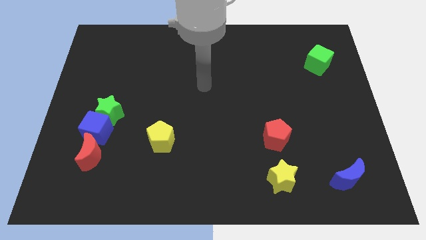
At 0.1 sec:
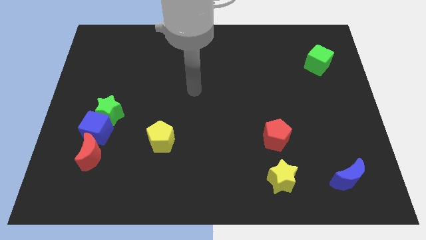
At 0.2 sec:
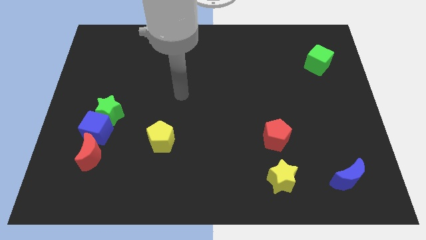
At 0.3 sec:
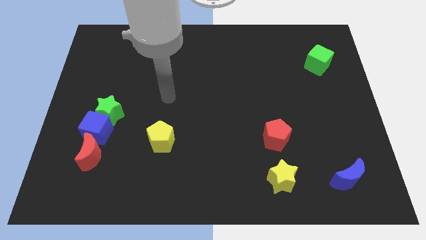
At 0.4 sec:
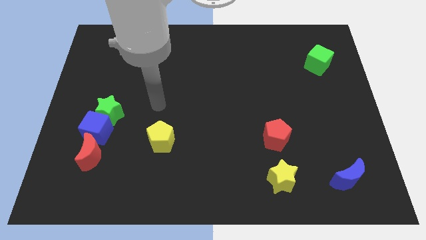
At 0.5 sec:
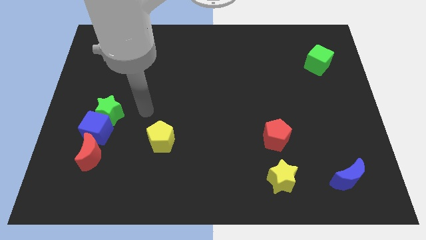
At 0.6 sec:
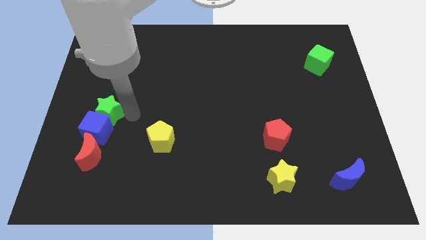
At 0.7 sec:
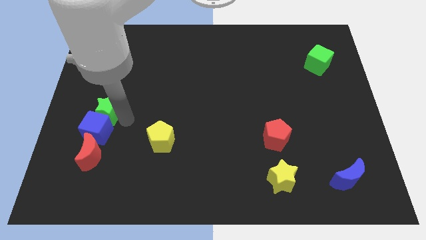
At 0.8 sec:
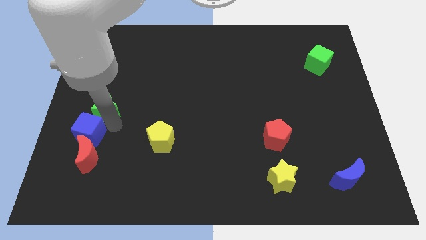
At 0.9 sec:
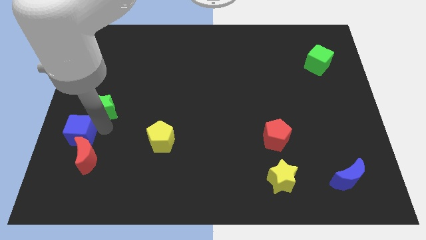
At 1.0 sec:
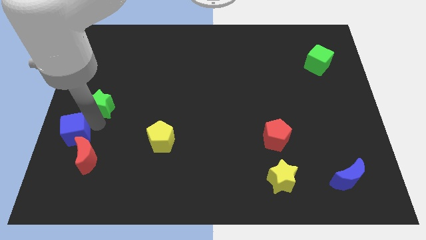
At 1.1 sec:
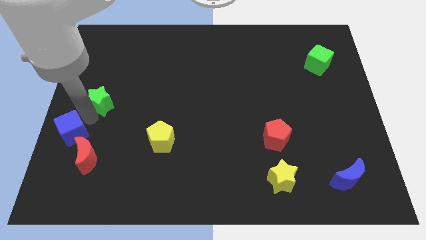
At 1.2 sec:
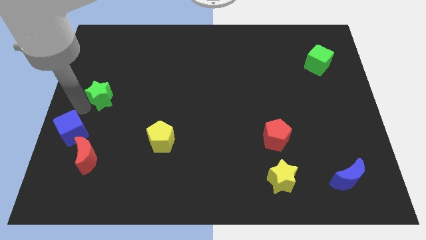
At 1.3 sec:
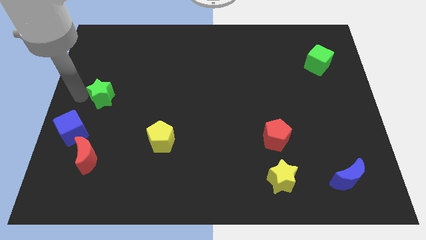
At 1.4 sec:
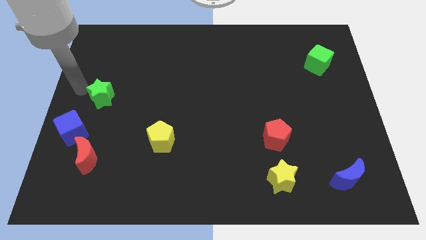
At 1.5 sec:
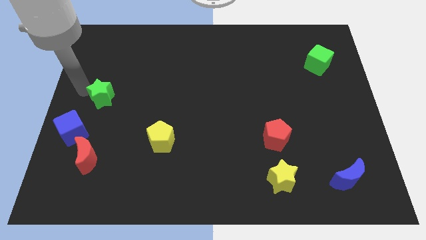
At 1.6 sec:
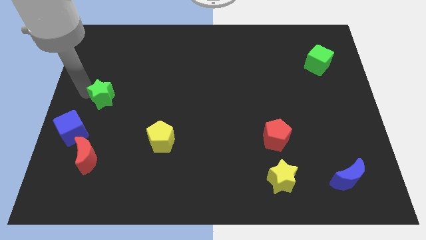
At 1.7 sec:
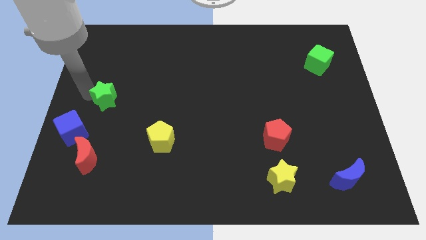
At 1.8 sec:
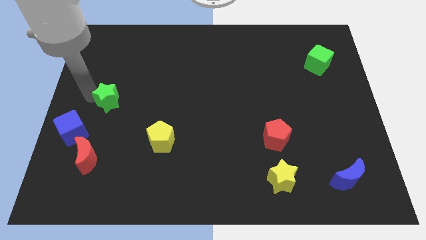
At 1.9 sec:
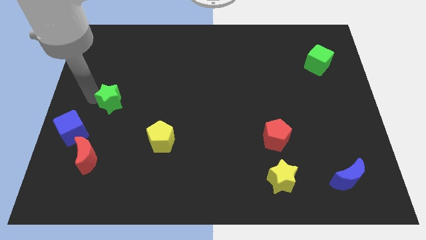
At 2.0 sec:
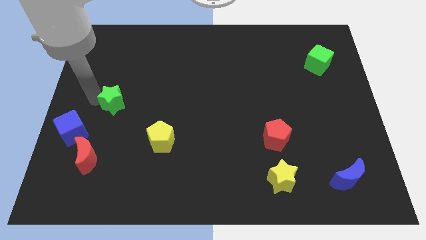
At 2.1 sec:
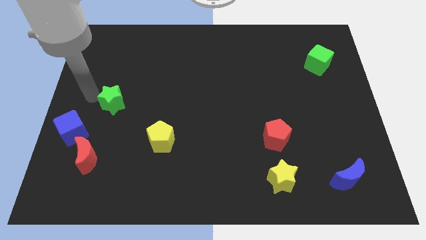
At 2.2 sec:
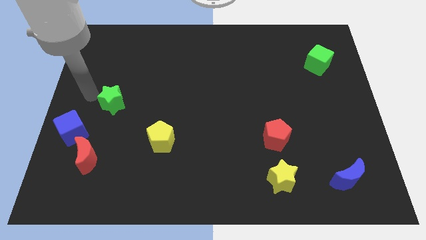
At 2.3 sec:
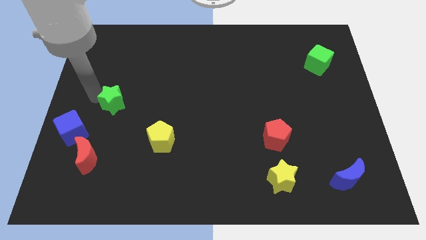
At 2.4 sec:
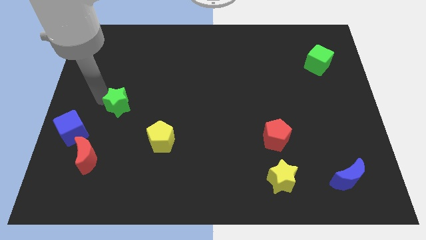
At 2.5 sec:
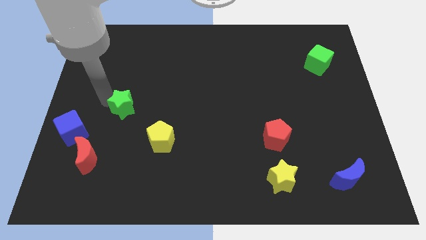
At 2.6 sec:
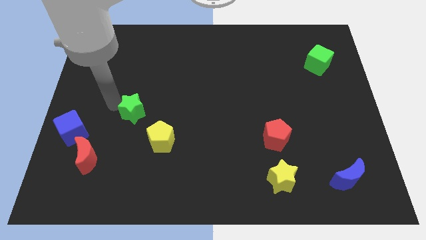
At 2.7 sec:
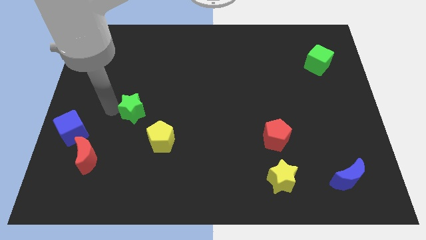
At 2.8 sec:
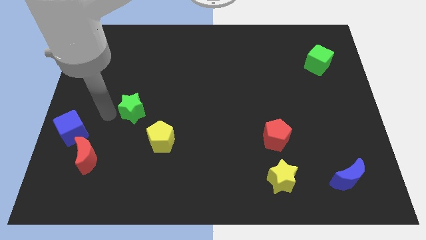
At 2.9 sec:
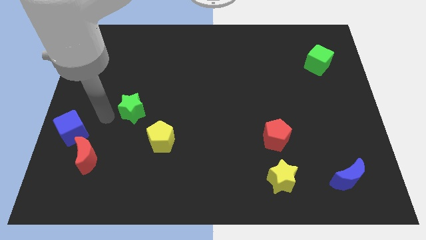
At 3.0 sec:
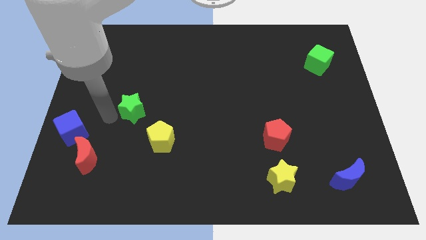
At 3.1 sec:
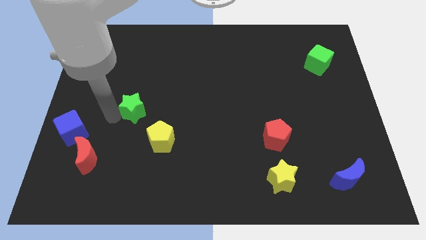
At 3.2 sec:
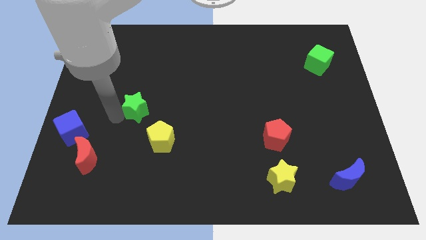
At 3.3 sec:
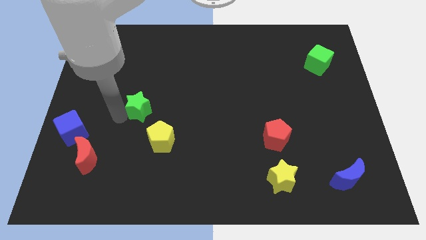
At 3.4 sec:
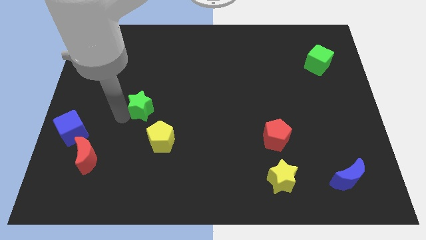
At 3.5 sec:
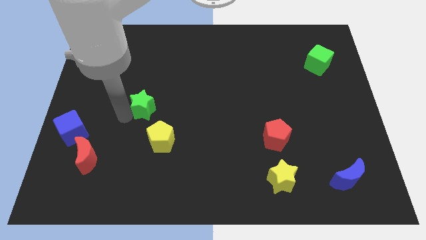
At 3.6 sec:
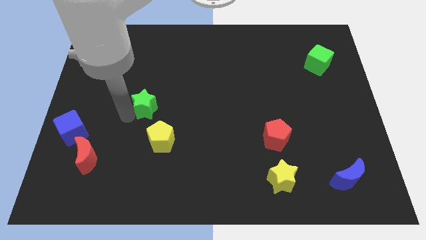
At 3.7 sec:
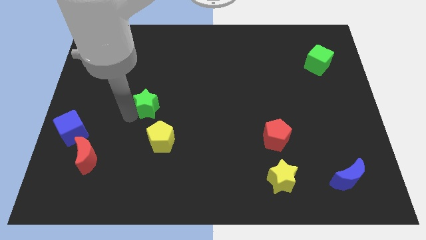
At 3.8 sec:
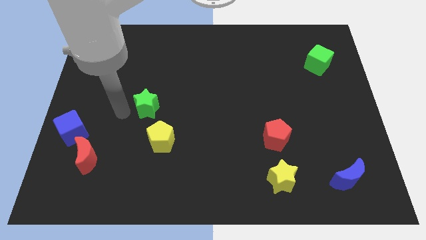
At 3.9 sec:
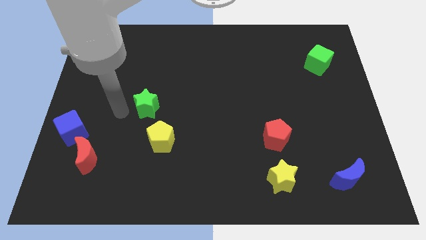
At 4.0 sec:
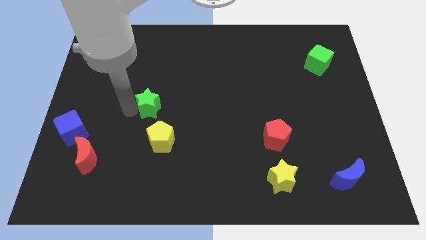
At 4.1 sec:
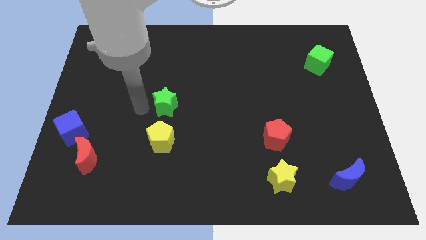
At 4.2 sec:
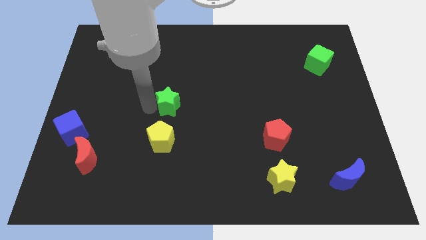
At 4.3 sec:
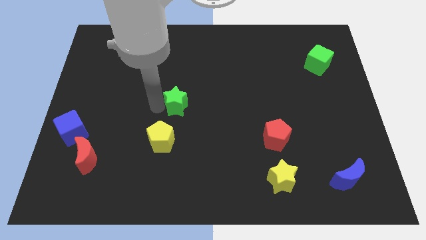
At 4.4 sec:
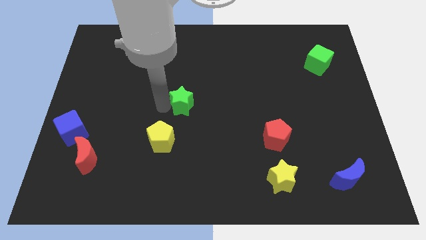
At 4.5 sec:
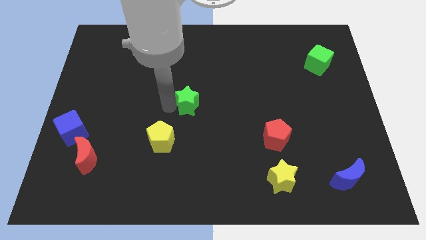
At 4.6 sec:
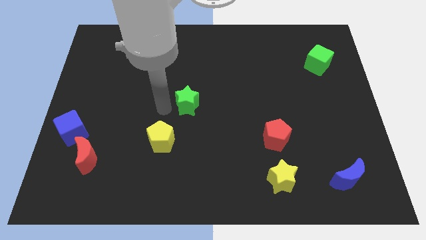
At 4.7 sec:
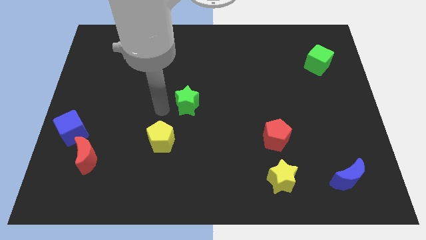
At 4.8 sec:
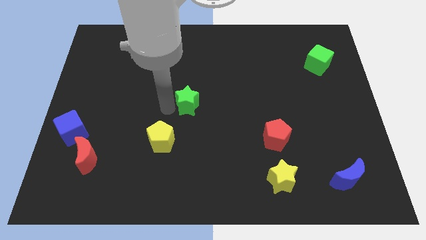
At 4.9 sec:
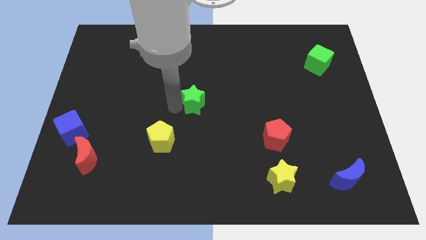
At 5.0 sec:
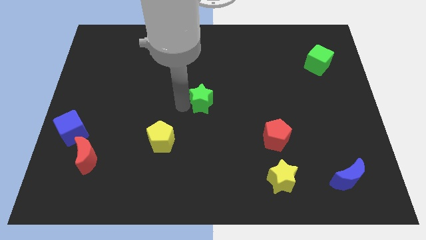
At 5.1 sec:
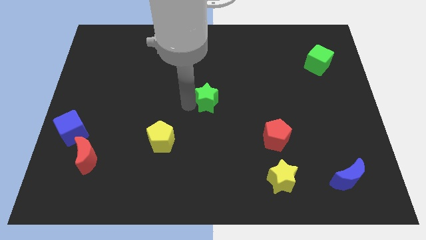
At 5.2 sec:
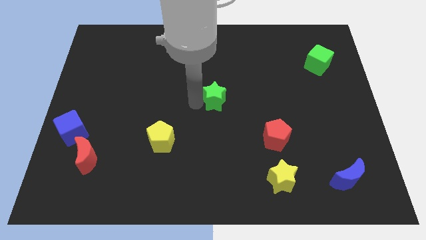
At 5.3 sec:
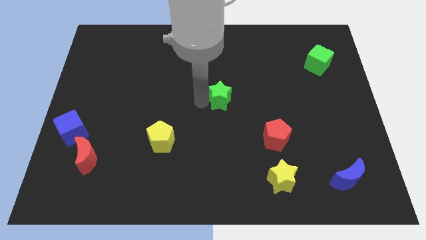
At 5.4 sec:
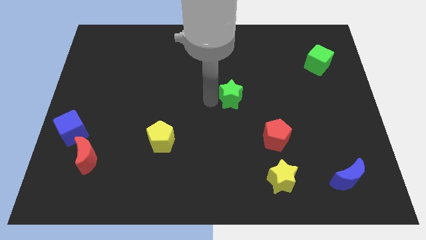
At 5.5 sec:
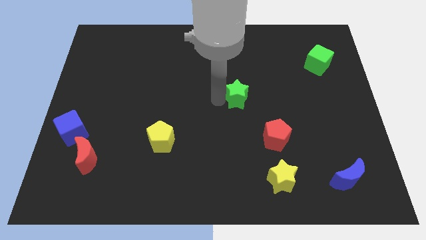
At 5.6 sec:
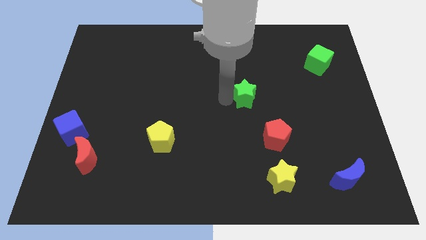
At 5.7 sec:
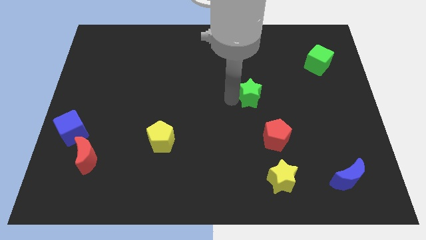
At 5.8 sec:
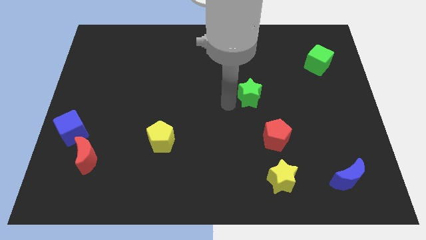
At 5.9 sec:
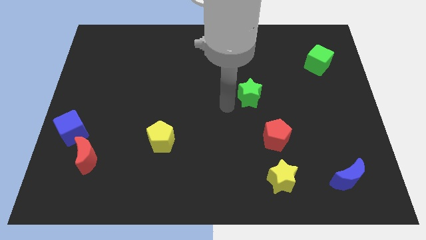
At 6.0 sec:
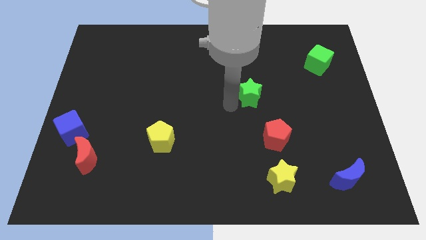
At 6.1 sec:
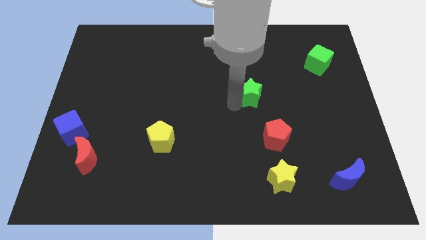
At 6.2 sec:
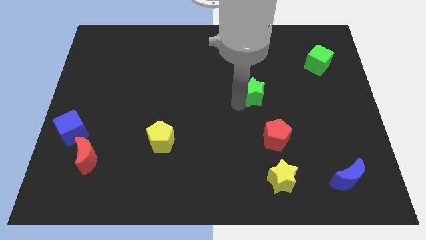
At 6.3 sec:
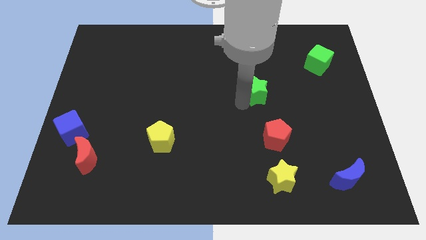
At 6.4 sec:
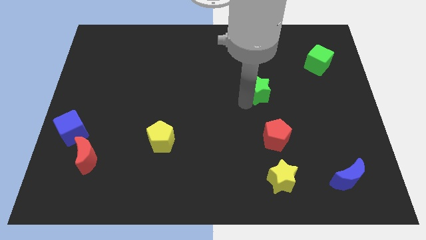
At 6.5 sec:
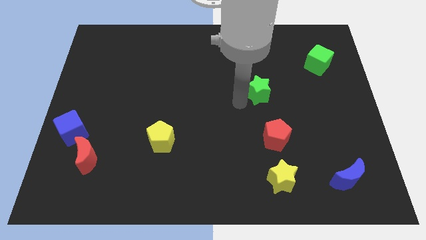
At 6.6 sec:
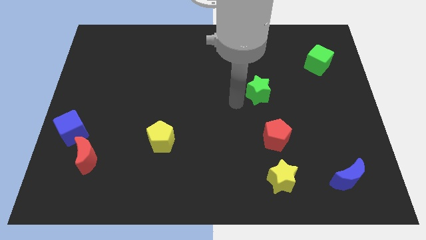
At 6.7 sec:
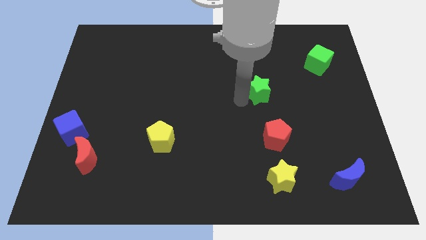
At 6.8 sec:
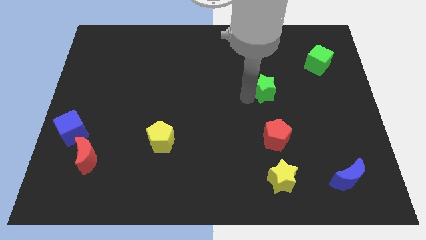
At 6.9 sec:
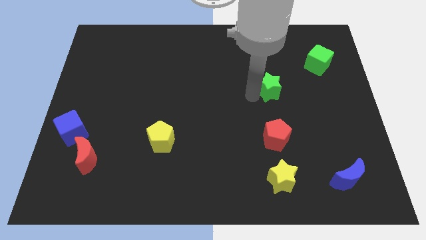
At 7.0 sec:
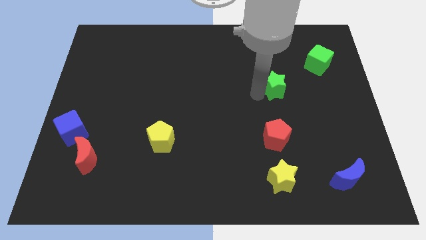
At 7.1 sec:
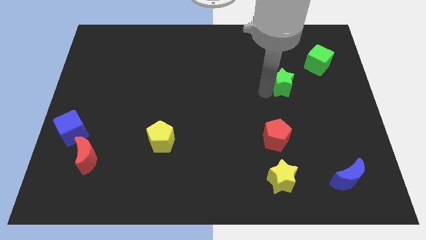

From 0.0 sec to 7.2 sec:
move the green star to the bottom left of the green cube

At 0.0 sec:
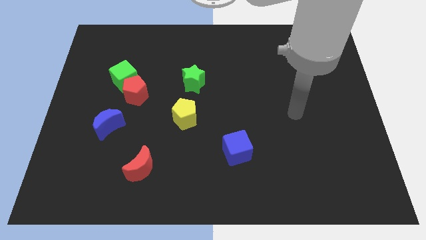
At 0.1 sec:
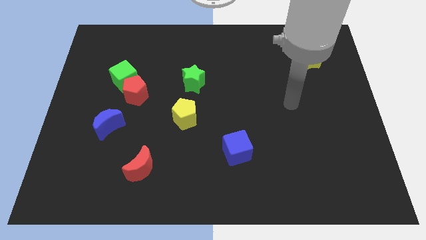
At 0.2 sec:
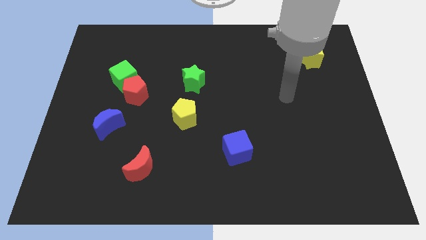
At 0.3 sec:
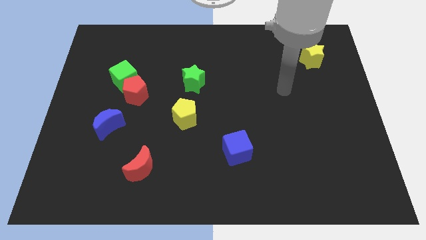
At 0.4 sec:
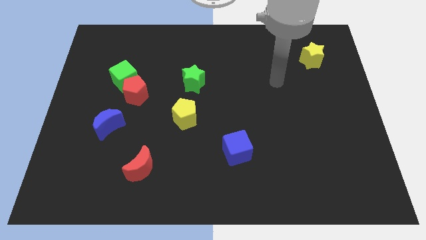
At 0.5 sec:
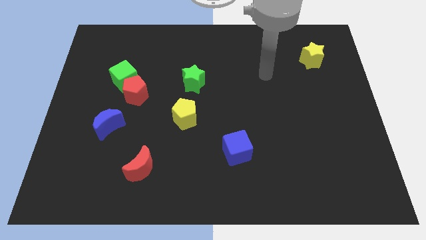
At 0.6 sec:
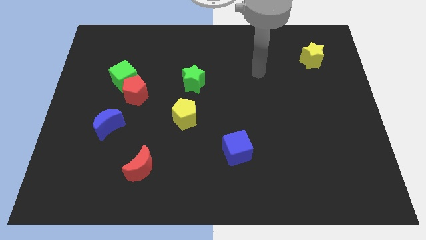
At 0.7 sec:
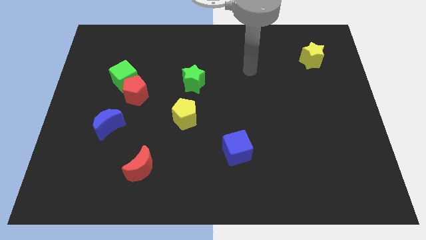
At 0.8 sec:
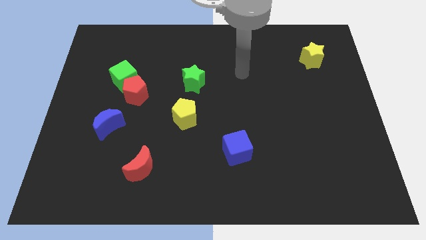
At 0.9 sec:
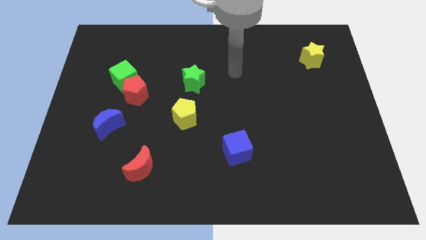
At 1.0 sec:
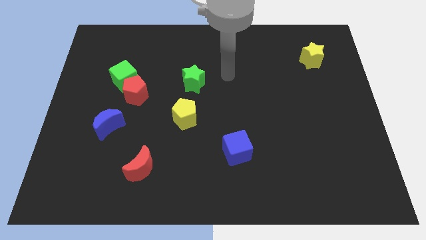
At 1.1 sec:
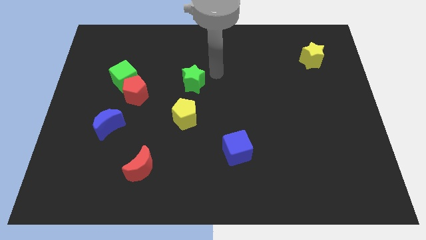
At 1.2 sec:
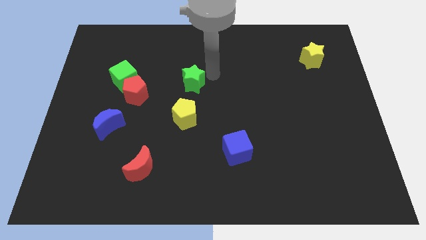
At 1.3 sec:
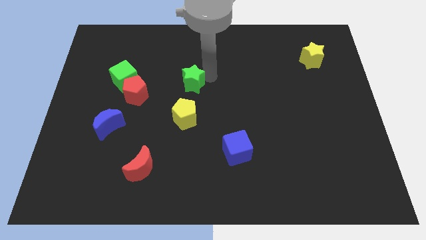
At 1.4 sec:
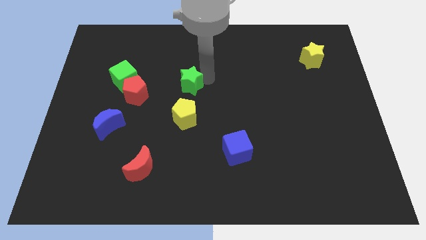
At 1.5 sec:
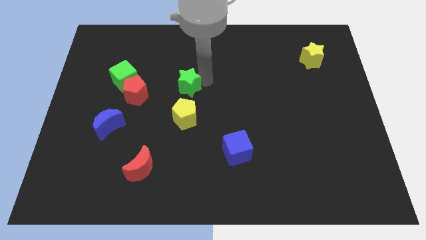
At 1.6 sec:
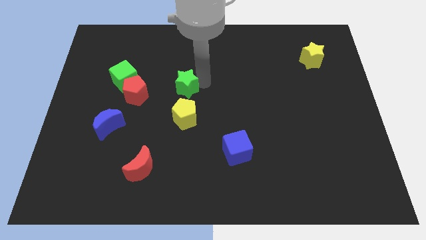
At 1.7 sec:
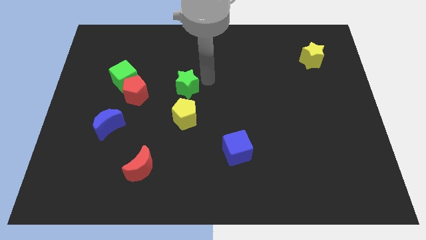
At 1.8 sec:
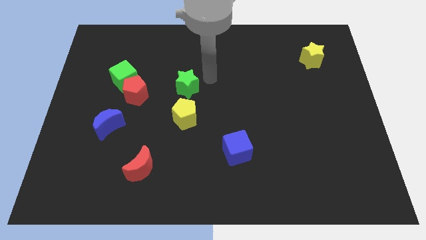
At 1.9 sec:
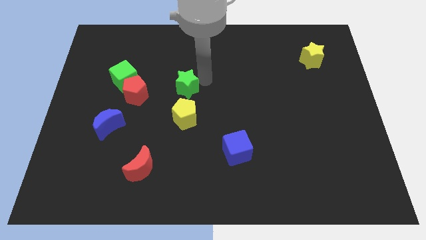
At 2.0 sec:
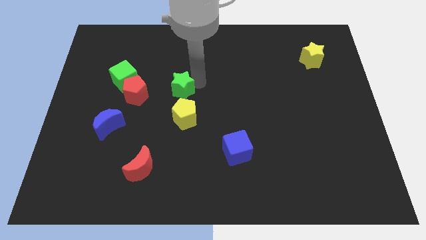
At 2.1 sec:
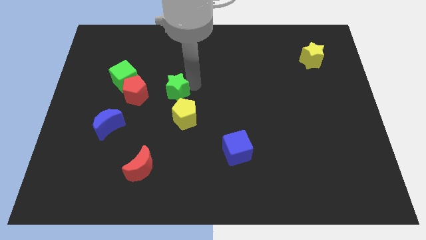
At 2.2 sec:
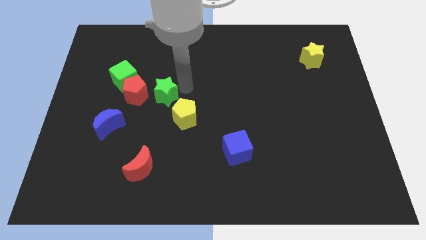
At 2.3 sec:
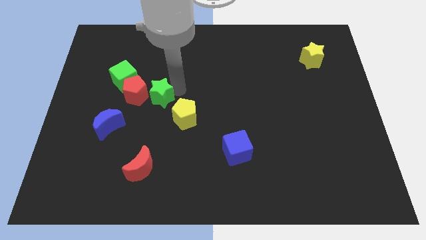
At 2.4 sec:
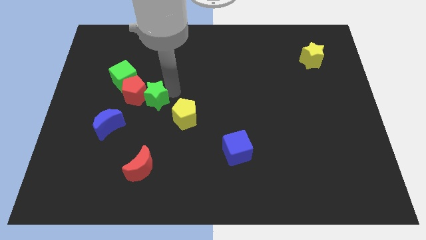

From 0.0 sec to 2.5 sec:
slide the green star to the top right of the blue moon
